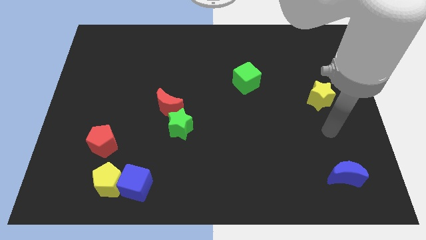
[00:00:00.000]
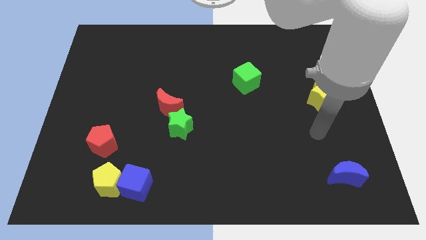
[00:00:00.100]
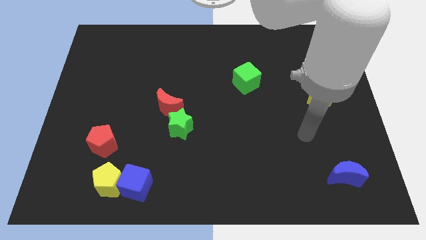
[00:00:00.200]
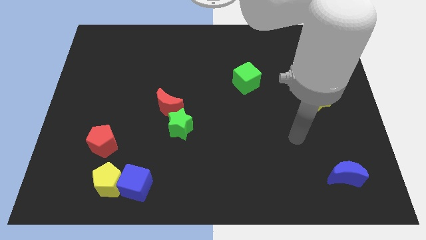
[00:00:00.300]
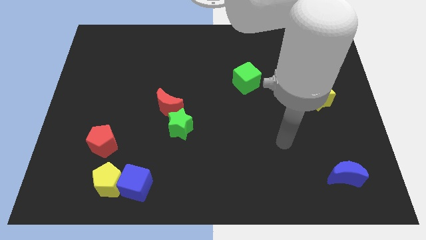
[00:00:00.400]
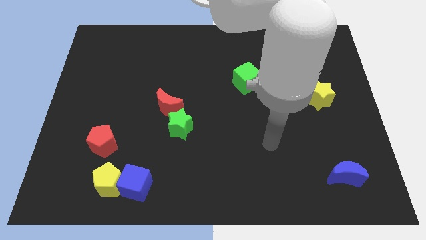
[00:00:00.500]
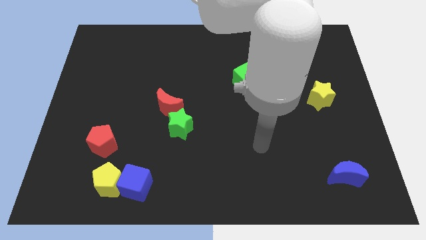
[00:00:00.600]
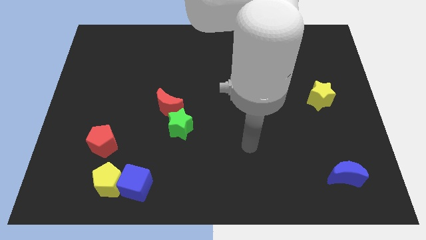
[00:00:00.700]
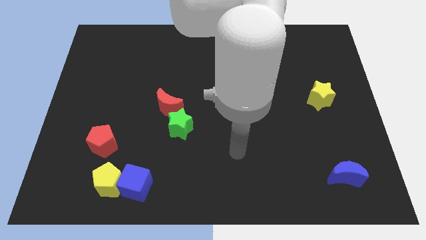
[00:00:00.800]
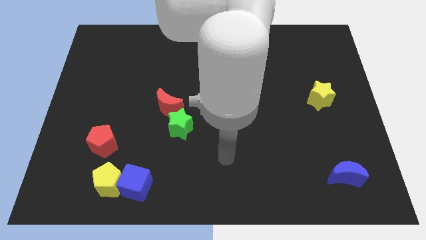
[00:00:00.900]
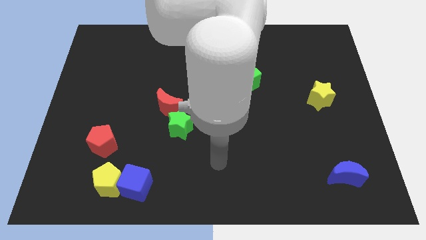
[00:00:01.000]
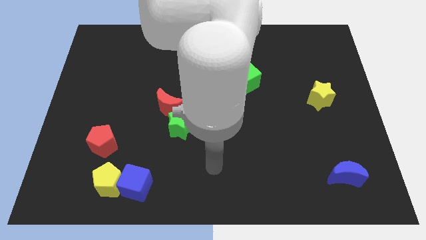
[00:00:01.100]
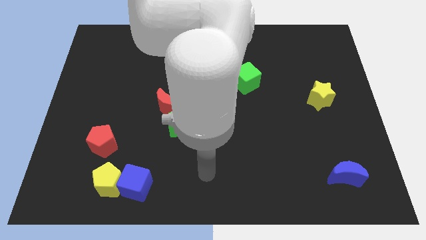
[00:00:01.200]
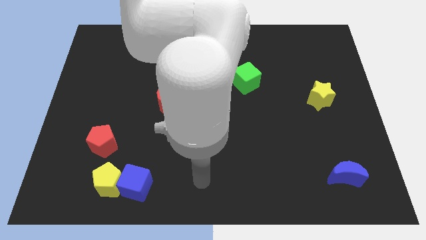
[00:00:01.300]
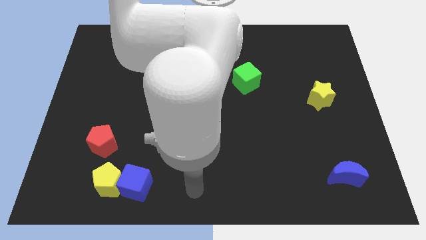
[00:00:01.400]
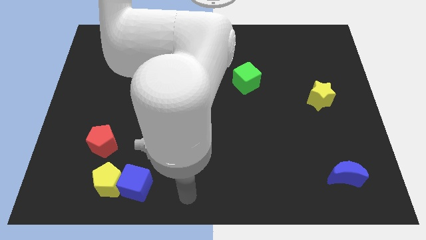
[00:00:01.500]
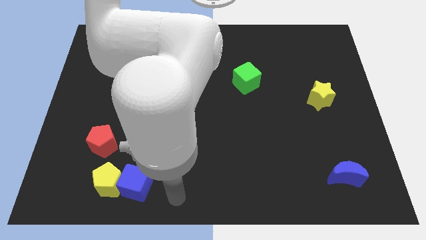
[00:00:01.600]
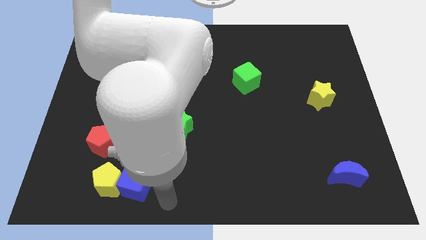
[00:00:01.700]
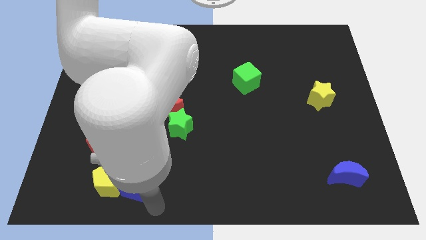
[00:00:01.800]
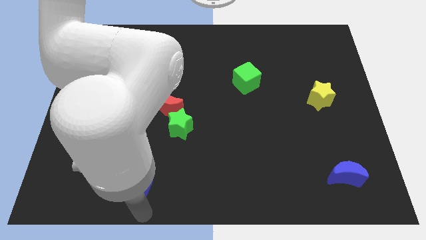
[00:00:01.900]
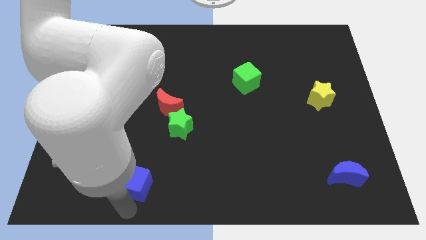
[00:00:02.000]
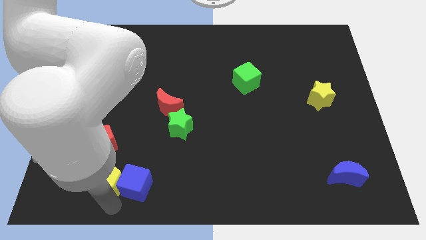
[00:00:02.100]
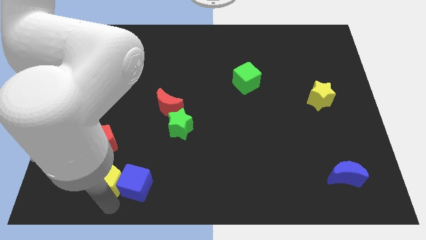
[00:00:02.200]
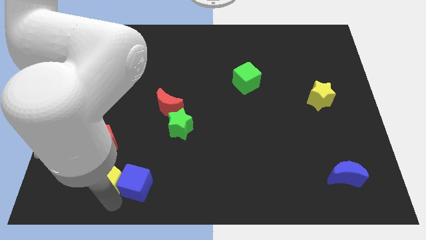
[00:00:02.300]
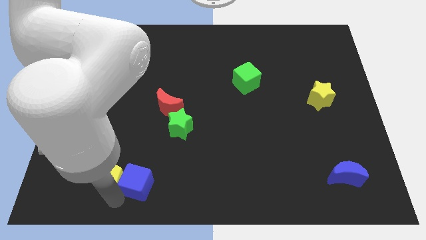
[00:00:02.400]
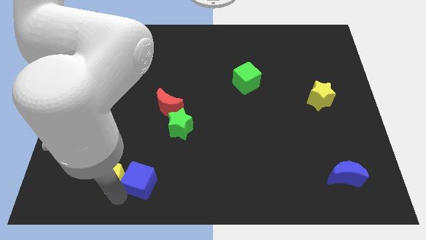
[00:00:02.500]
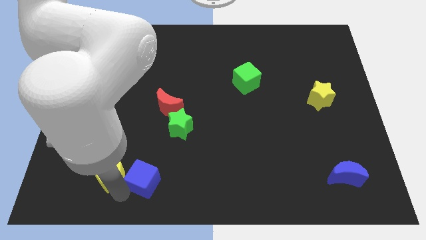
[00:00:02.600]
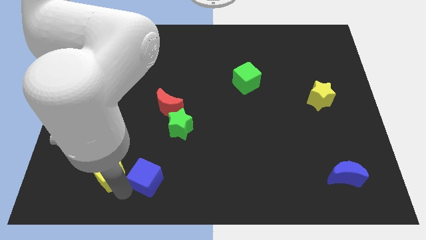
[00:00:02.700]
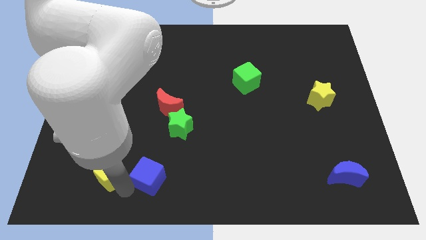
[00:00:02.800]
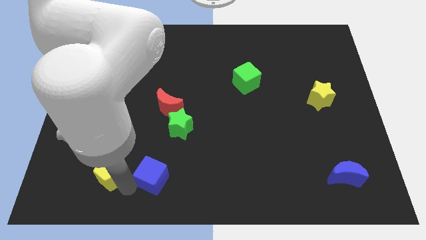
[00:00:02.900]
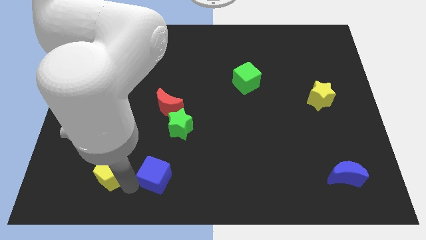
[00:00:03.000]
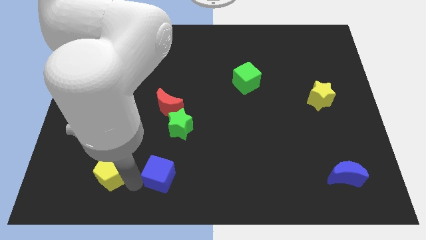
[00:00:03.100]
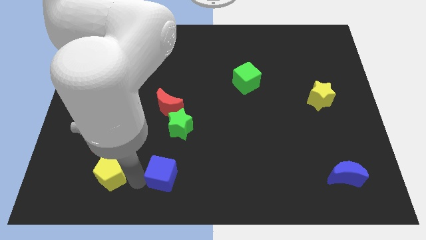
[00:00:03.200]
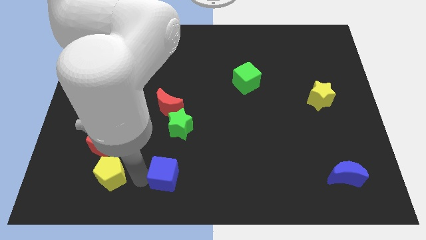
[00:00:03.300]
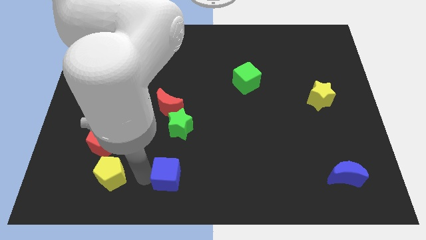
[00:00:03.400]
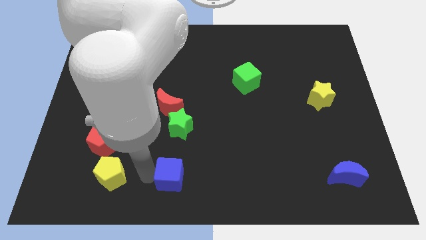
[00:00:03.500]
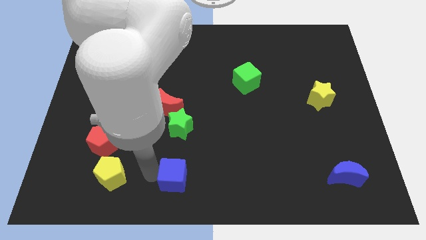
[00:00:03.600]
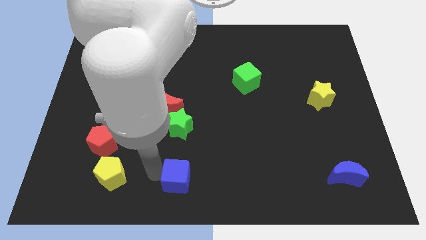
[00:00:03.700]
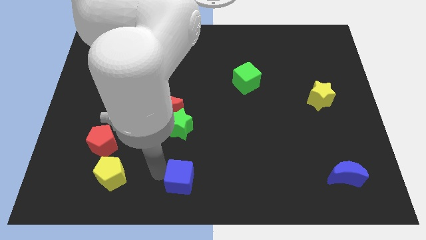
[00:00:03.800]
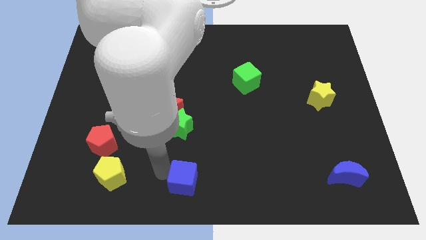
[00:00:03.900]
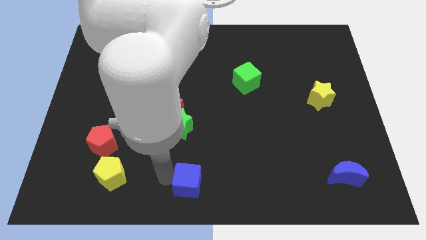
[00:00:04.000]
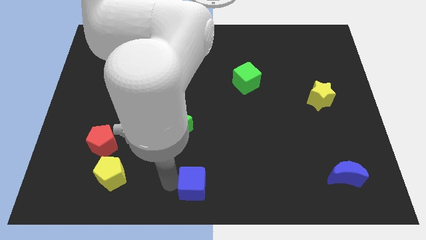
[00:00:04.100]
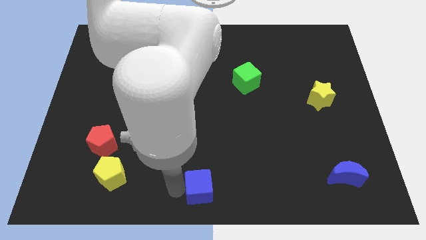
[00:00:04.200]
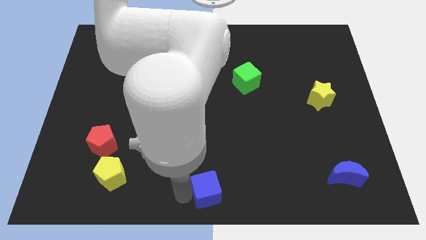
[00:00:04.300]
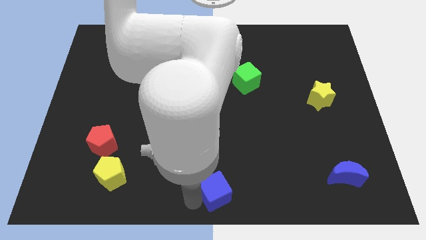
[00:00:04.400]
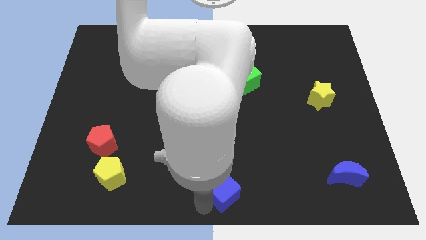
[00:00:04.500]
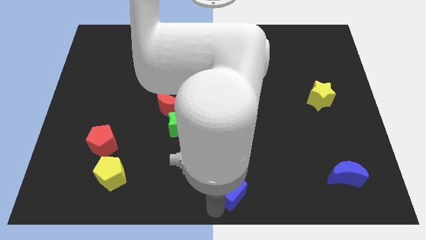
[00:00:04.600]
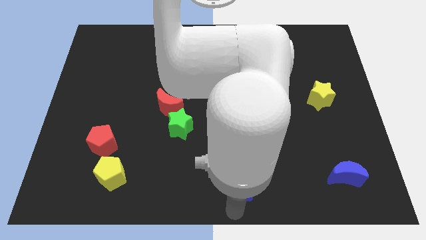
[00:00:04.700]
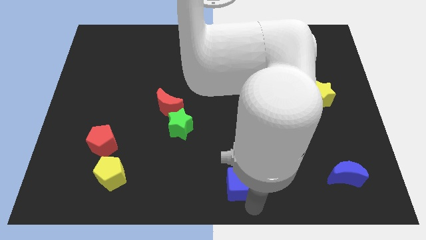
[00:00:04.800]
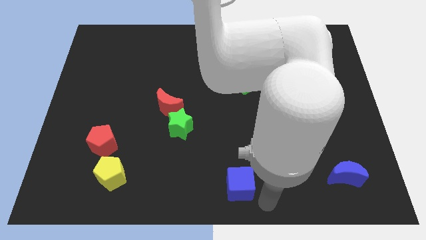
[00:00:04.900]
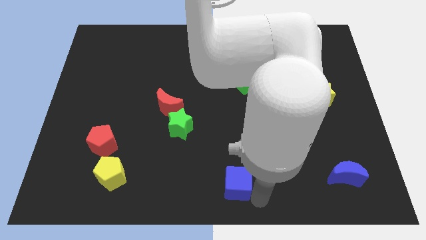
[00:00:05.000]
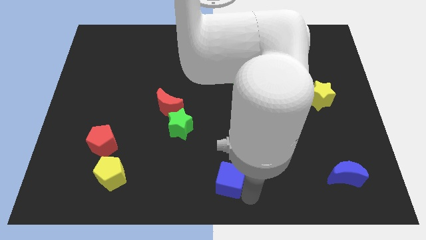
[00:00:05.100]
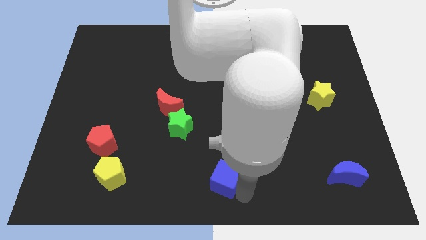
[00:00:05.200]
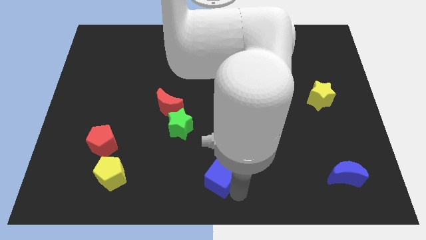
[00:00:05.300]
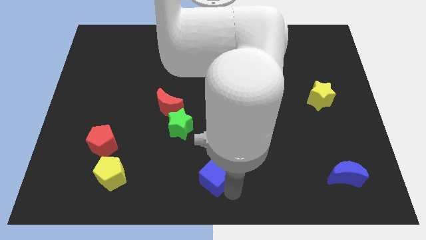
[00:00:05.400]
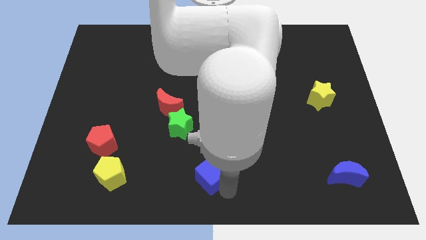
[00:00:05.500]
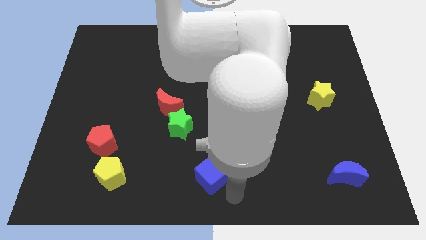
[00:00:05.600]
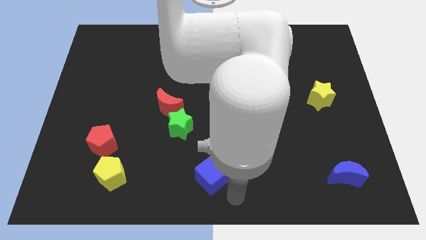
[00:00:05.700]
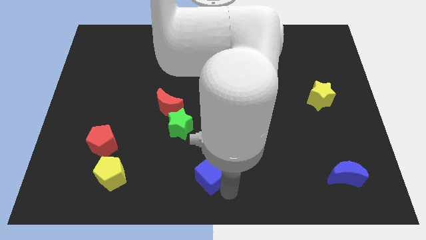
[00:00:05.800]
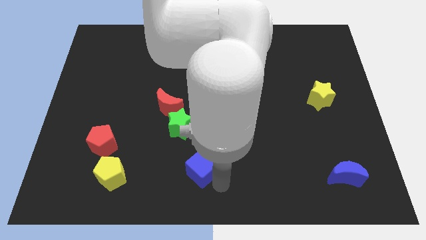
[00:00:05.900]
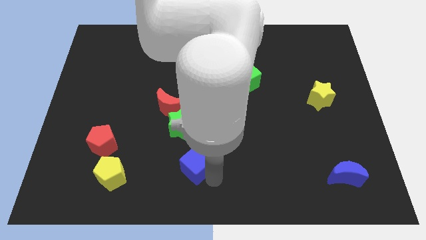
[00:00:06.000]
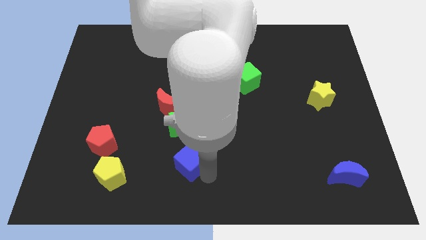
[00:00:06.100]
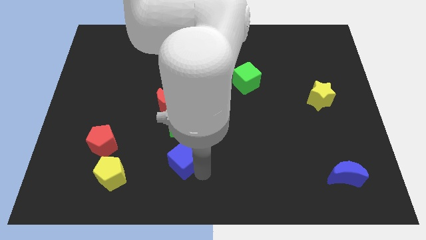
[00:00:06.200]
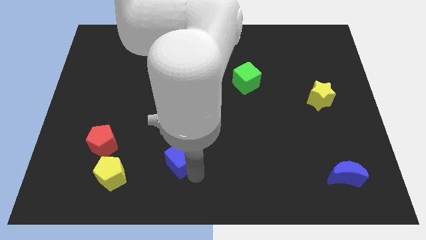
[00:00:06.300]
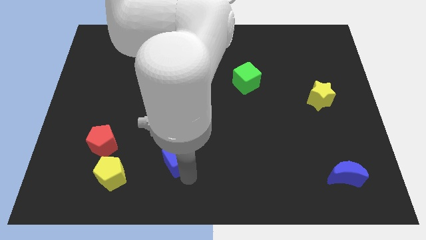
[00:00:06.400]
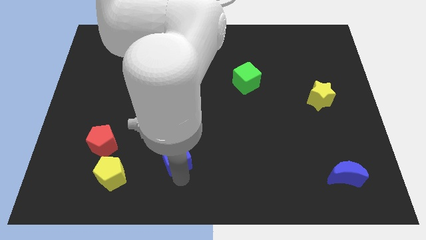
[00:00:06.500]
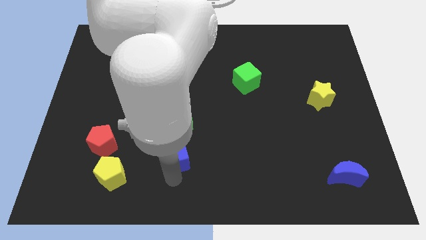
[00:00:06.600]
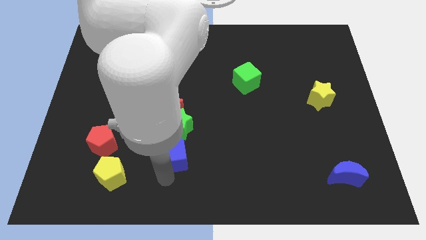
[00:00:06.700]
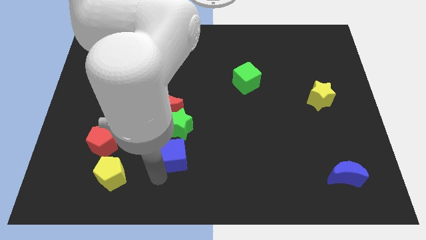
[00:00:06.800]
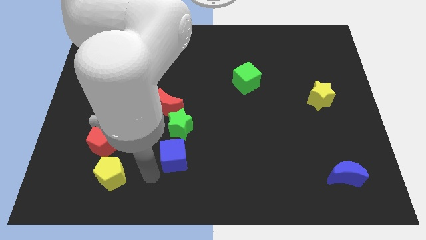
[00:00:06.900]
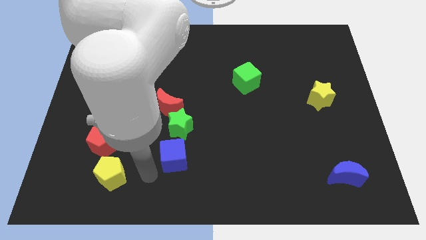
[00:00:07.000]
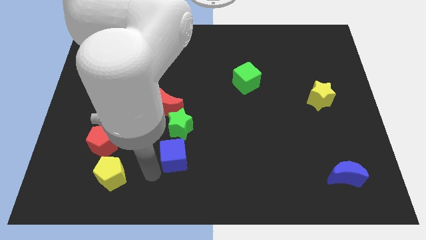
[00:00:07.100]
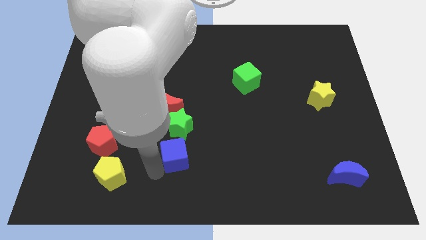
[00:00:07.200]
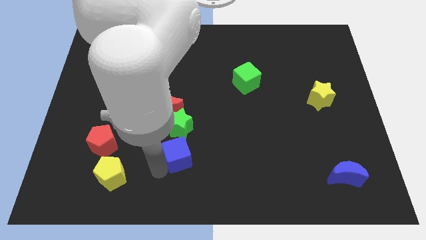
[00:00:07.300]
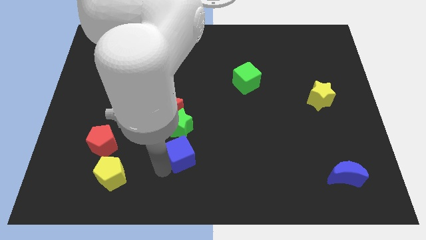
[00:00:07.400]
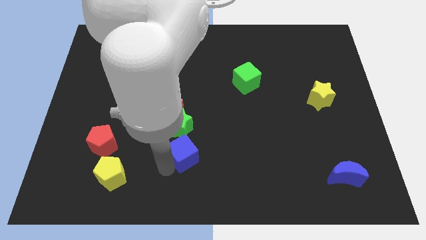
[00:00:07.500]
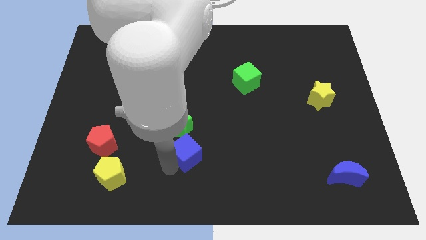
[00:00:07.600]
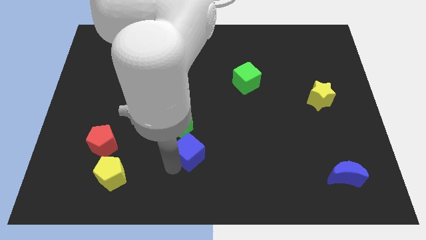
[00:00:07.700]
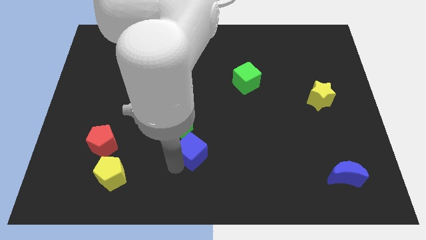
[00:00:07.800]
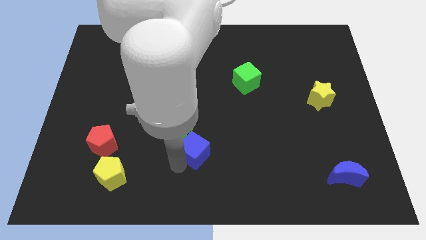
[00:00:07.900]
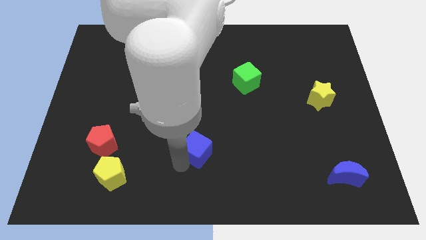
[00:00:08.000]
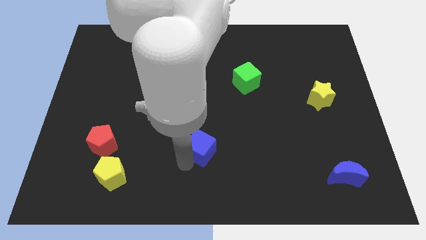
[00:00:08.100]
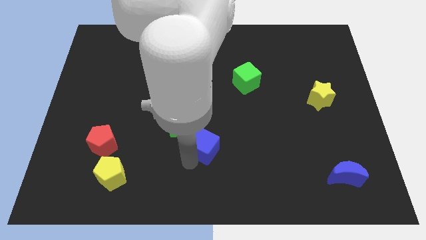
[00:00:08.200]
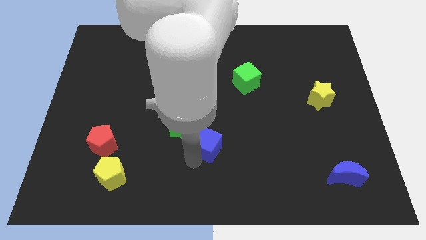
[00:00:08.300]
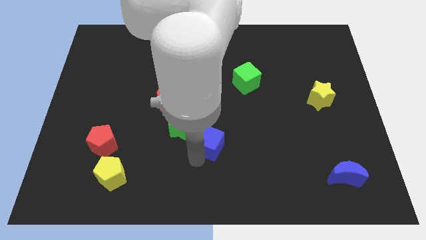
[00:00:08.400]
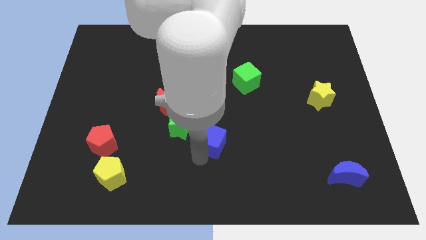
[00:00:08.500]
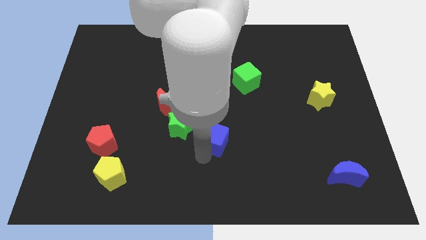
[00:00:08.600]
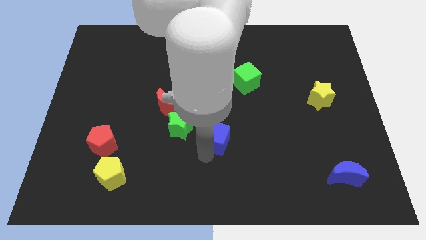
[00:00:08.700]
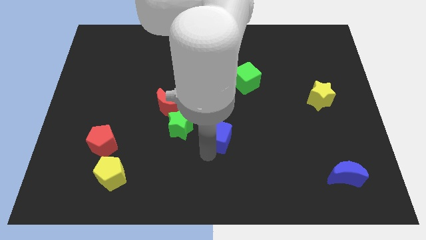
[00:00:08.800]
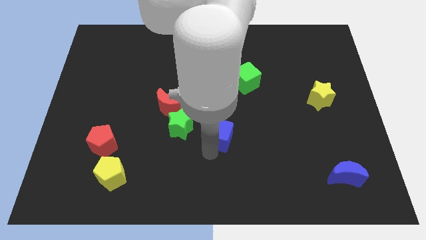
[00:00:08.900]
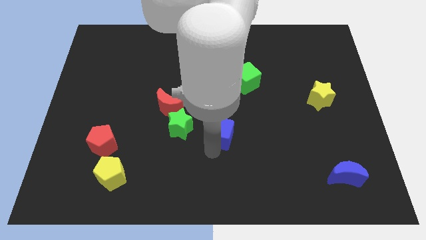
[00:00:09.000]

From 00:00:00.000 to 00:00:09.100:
move the blue cube upwards and to the right
